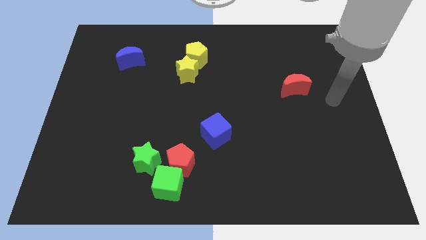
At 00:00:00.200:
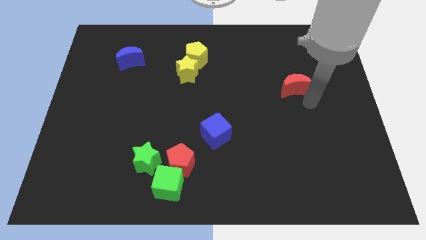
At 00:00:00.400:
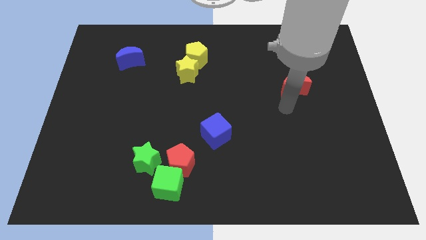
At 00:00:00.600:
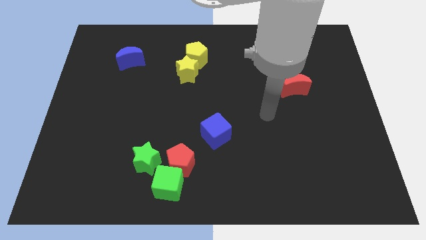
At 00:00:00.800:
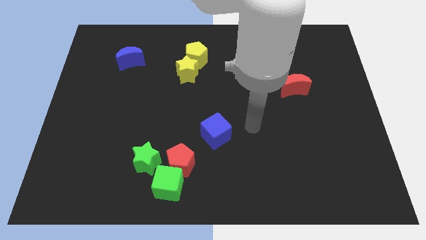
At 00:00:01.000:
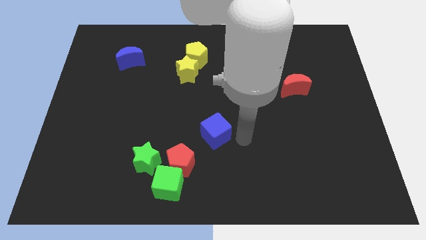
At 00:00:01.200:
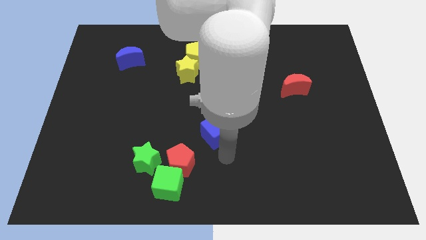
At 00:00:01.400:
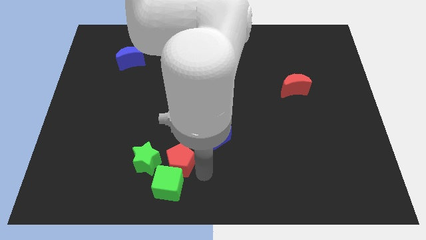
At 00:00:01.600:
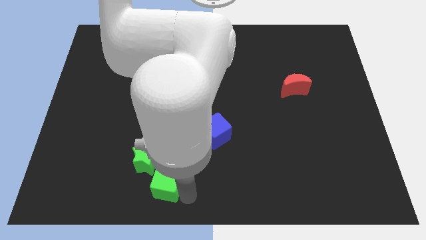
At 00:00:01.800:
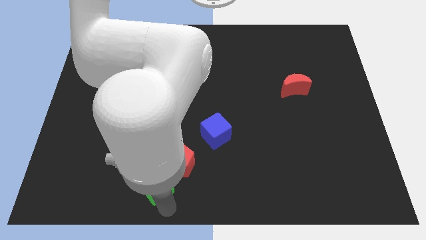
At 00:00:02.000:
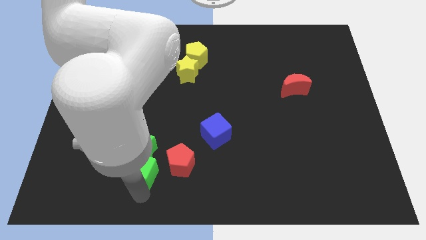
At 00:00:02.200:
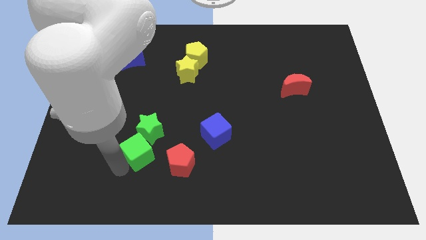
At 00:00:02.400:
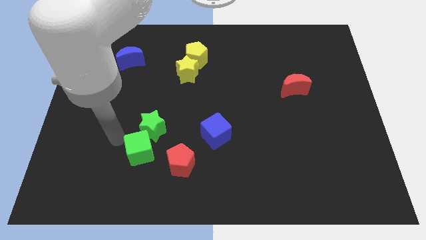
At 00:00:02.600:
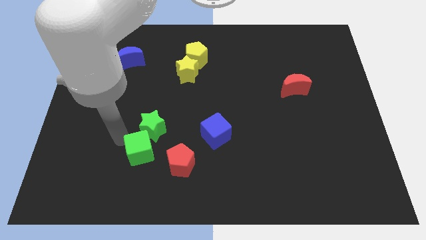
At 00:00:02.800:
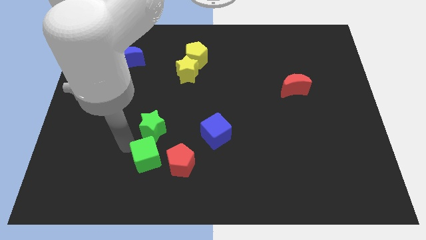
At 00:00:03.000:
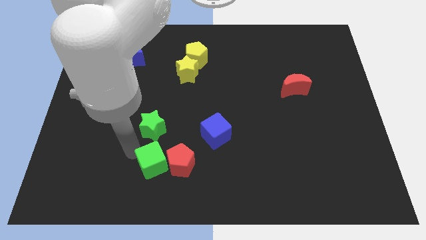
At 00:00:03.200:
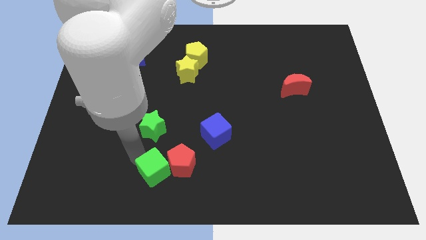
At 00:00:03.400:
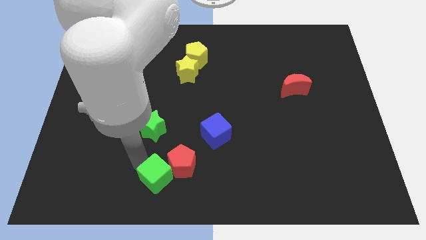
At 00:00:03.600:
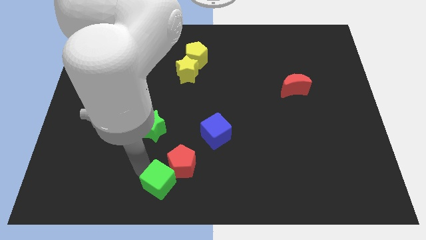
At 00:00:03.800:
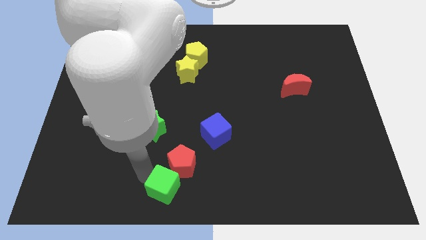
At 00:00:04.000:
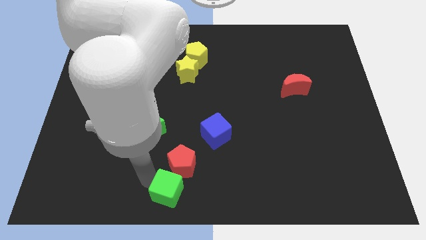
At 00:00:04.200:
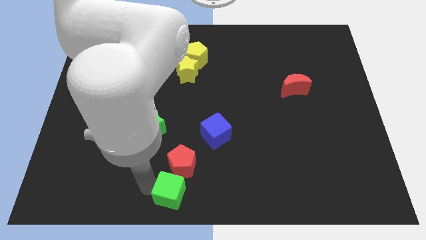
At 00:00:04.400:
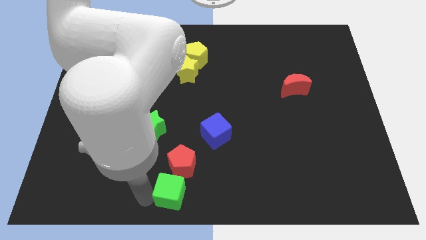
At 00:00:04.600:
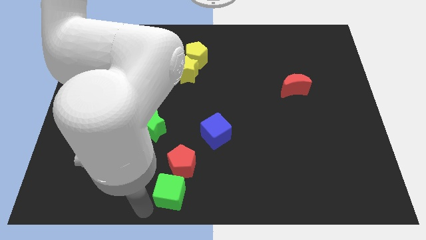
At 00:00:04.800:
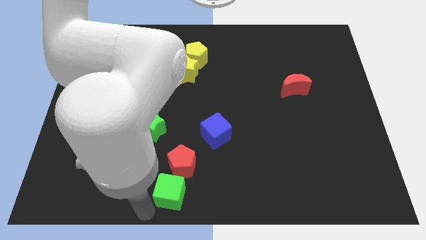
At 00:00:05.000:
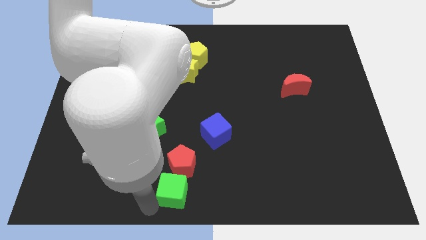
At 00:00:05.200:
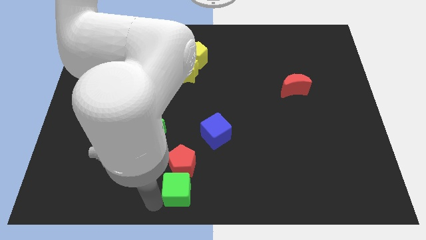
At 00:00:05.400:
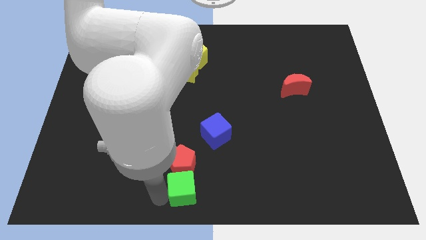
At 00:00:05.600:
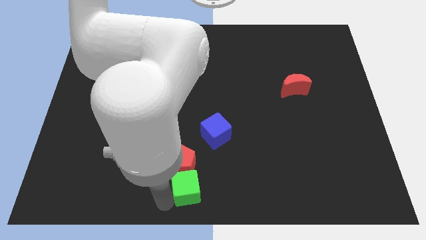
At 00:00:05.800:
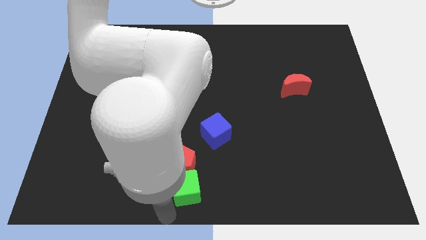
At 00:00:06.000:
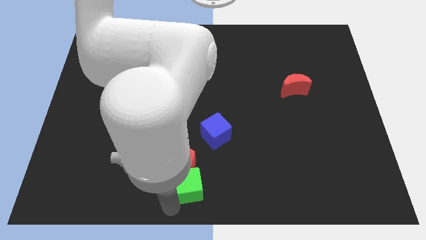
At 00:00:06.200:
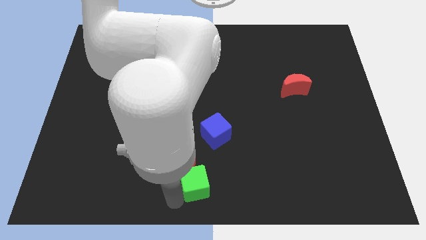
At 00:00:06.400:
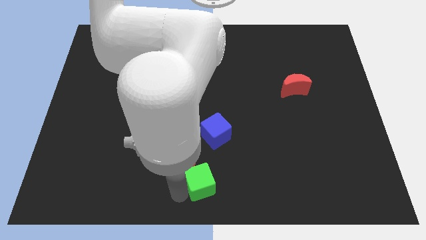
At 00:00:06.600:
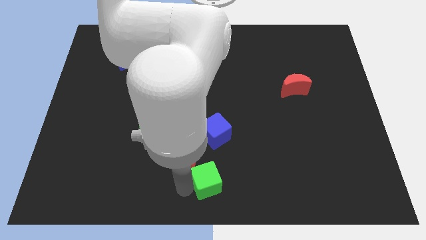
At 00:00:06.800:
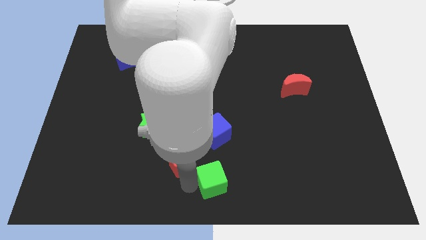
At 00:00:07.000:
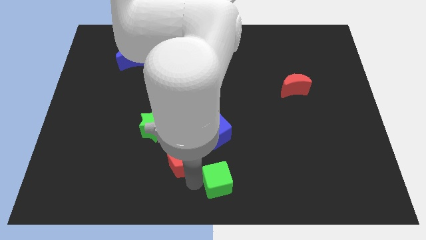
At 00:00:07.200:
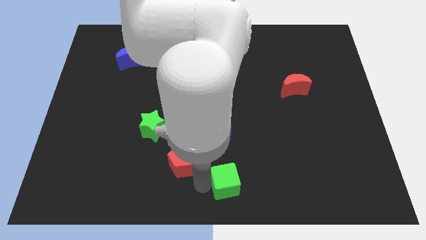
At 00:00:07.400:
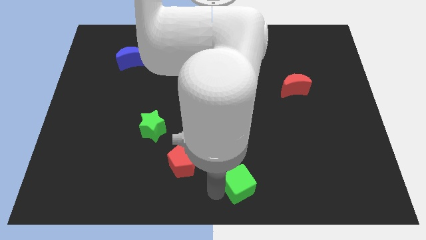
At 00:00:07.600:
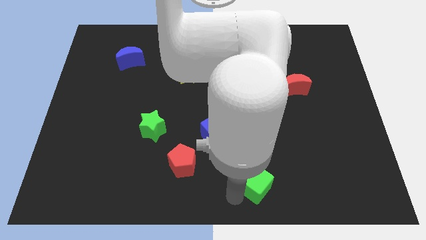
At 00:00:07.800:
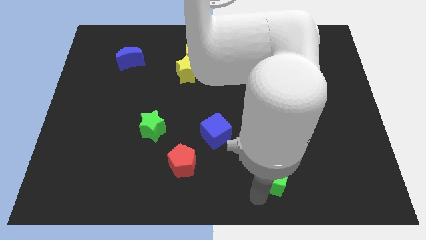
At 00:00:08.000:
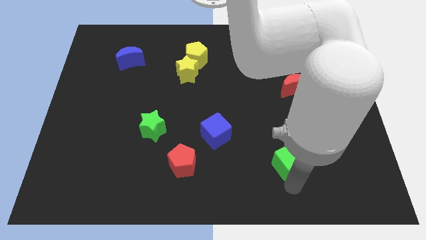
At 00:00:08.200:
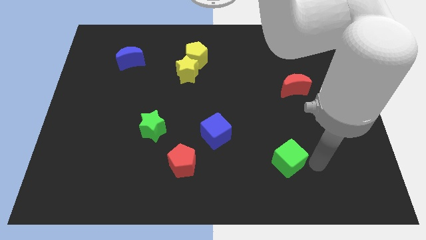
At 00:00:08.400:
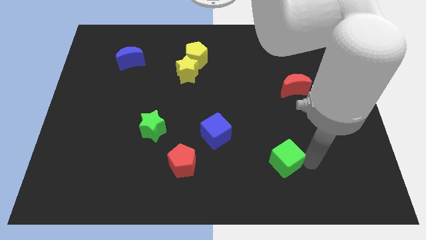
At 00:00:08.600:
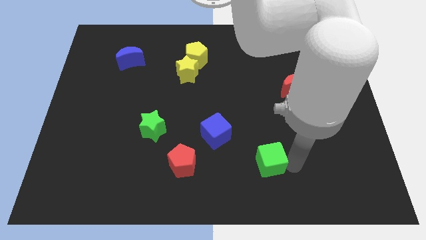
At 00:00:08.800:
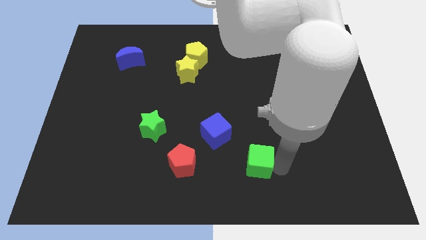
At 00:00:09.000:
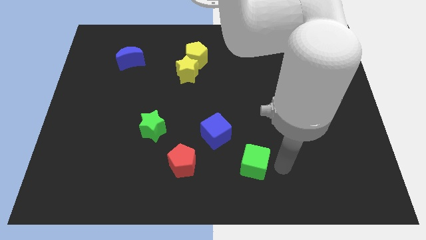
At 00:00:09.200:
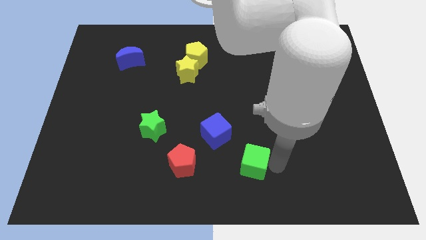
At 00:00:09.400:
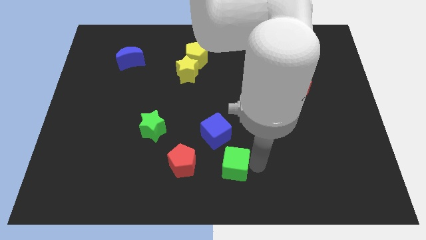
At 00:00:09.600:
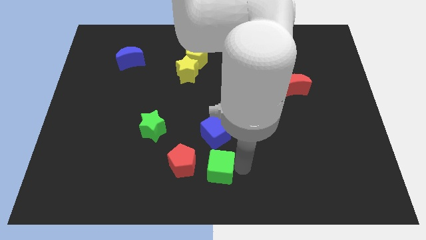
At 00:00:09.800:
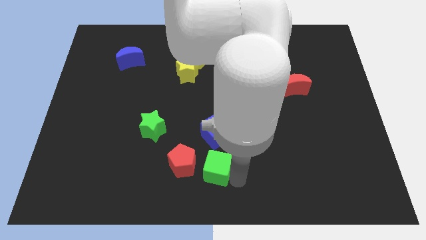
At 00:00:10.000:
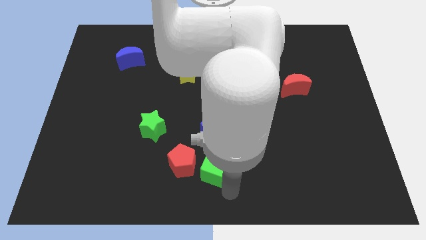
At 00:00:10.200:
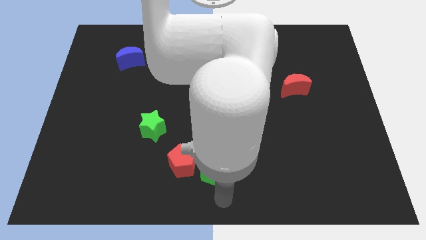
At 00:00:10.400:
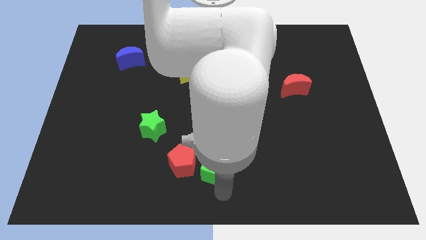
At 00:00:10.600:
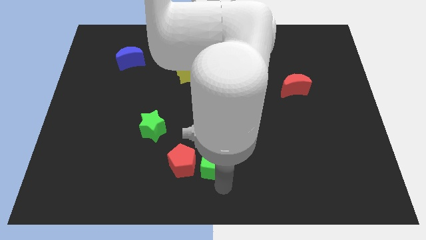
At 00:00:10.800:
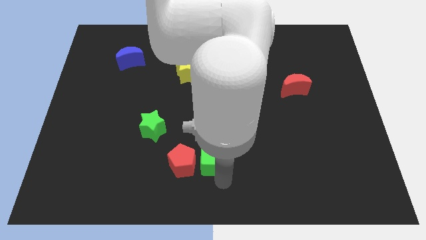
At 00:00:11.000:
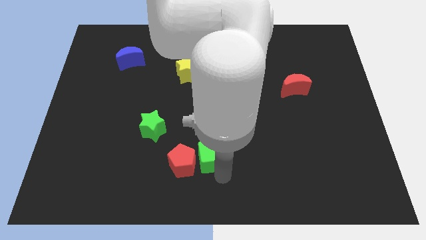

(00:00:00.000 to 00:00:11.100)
move the green cube towards the blue cube

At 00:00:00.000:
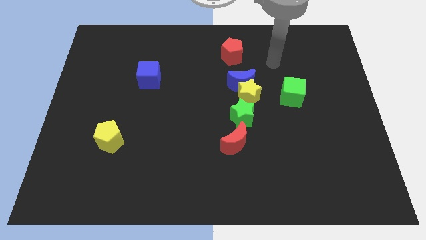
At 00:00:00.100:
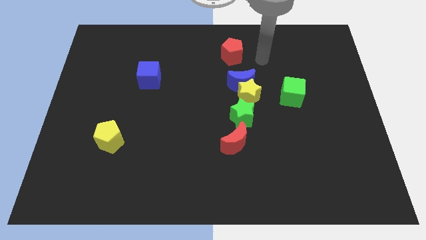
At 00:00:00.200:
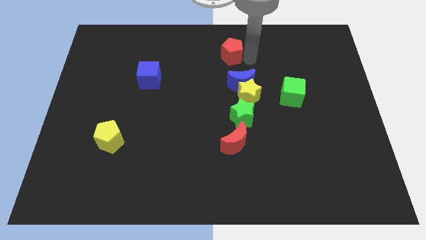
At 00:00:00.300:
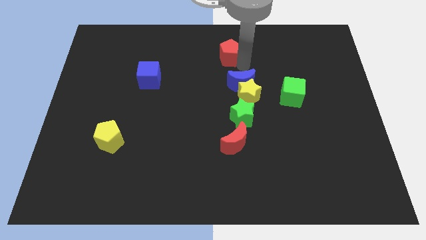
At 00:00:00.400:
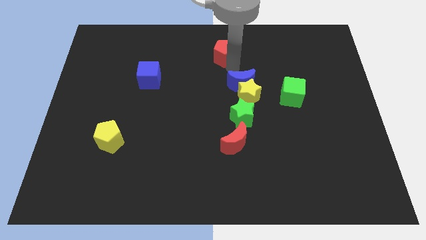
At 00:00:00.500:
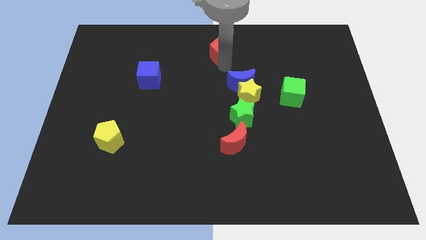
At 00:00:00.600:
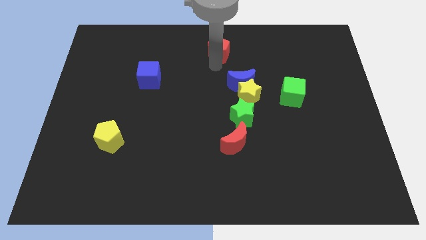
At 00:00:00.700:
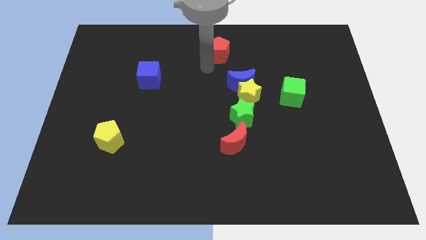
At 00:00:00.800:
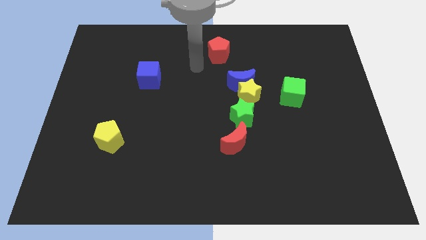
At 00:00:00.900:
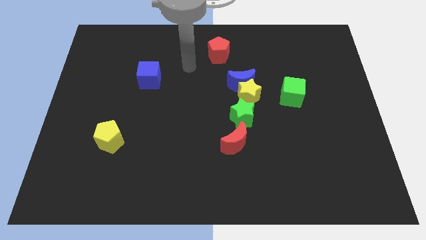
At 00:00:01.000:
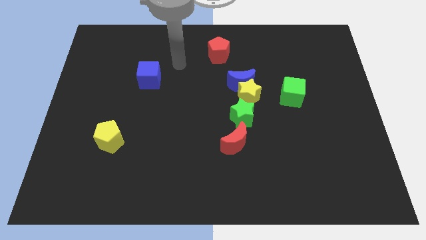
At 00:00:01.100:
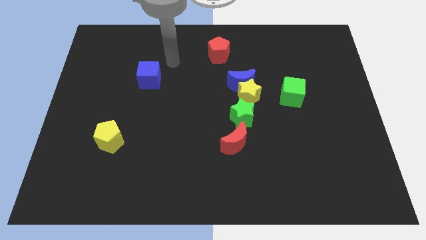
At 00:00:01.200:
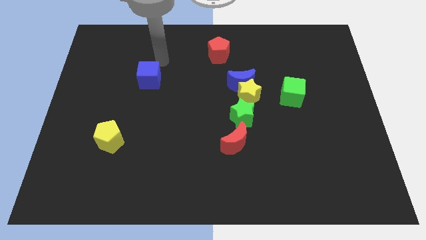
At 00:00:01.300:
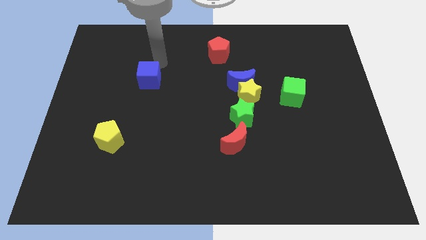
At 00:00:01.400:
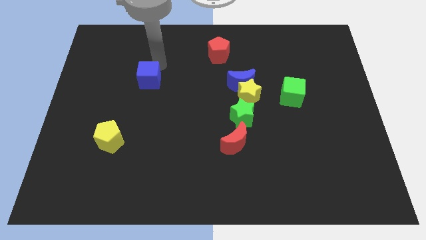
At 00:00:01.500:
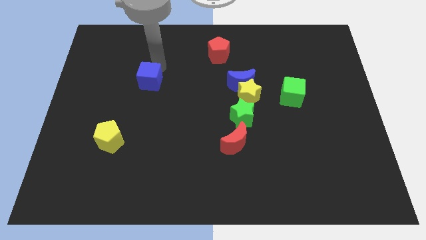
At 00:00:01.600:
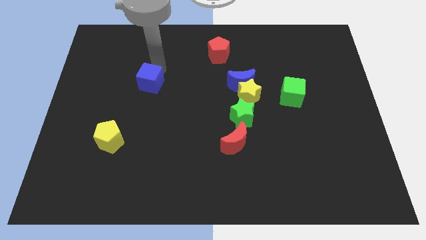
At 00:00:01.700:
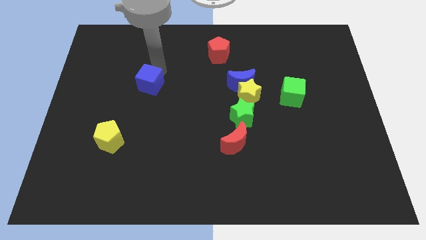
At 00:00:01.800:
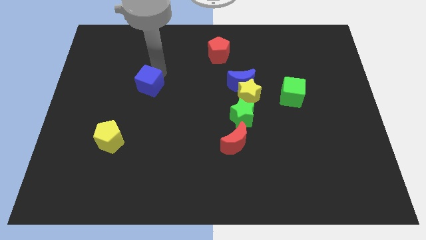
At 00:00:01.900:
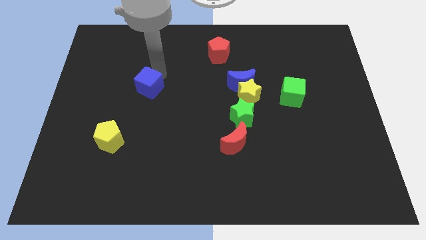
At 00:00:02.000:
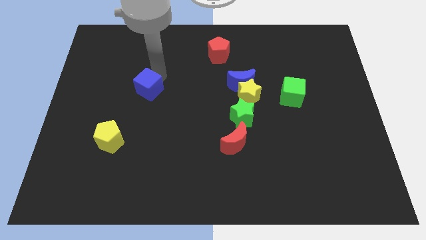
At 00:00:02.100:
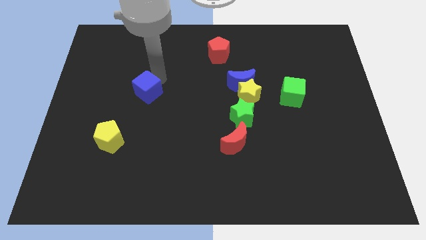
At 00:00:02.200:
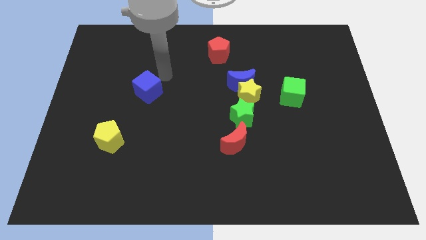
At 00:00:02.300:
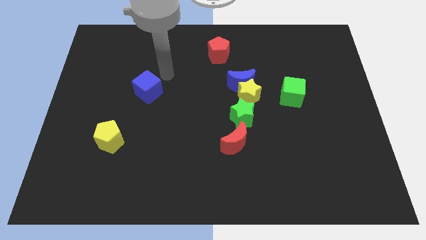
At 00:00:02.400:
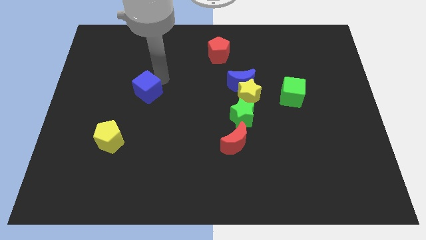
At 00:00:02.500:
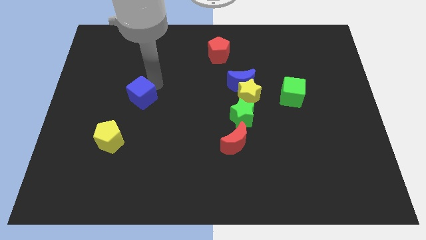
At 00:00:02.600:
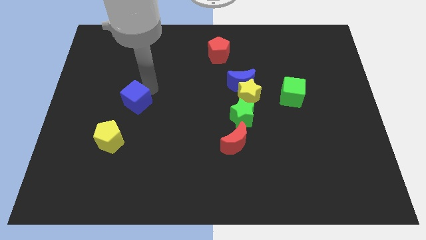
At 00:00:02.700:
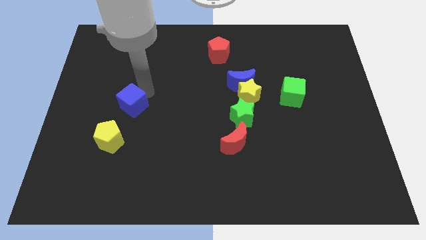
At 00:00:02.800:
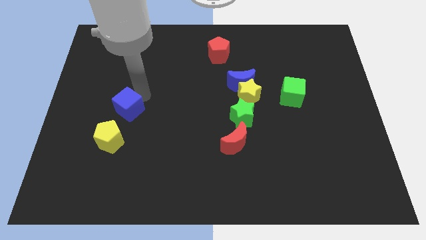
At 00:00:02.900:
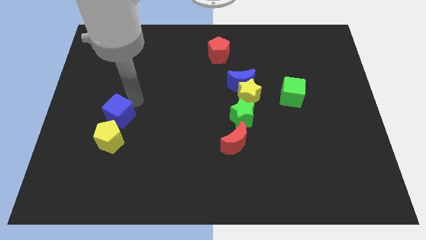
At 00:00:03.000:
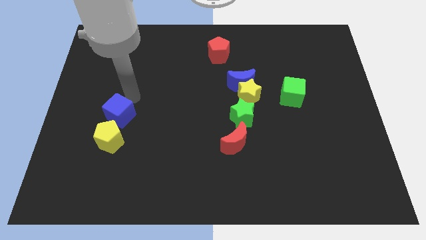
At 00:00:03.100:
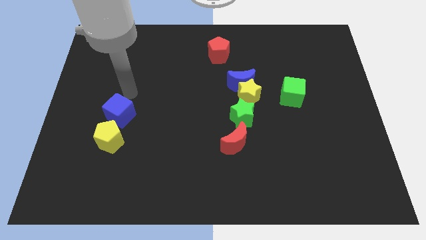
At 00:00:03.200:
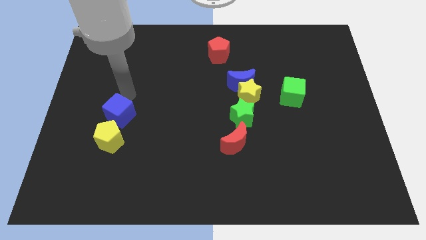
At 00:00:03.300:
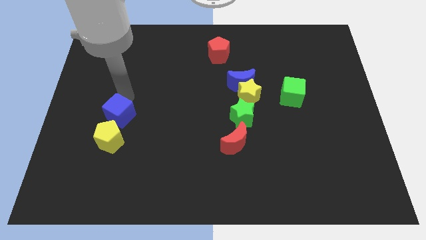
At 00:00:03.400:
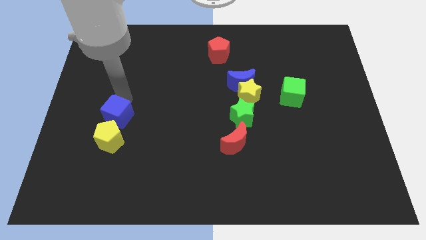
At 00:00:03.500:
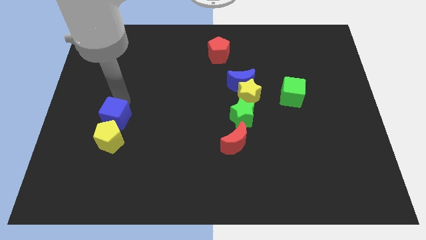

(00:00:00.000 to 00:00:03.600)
put the blue cube next to the yellow pentagon
